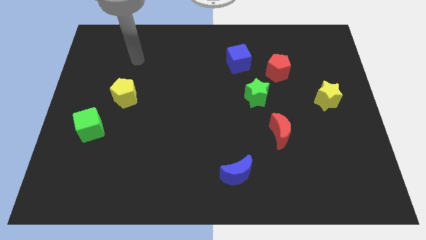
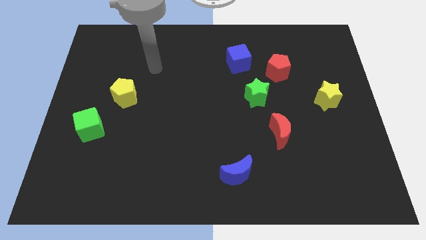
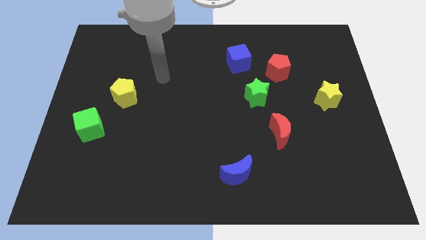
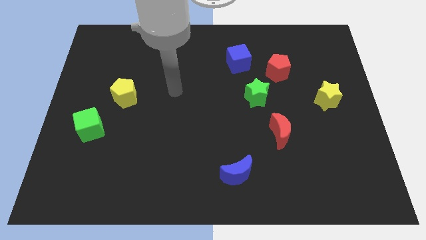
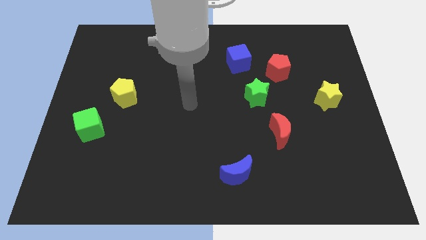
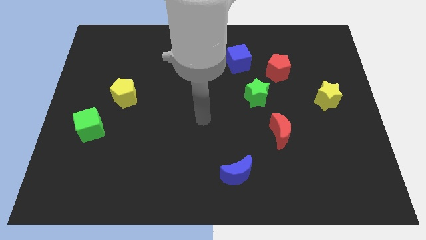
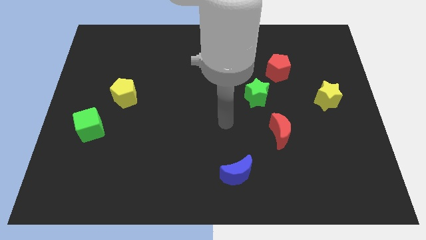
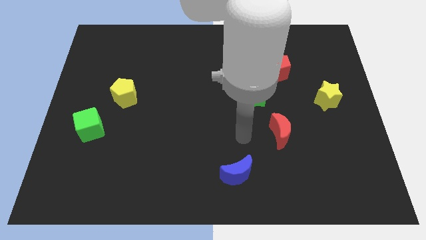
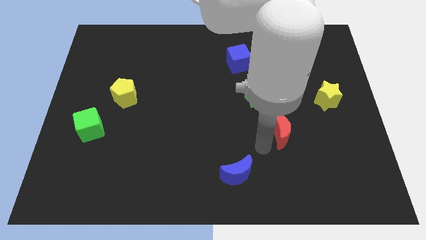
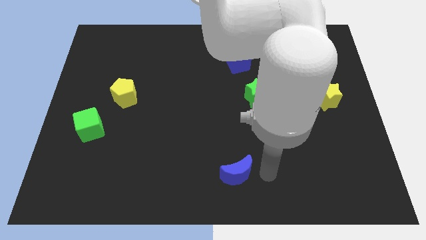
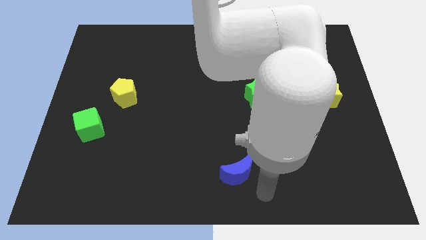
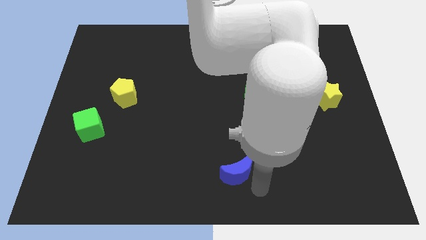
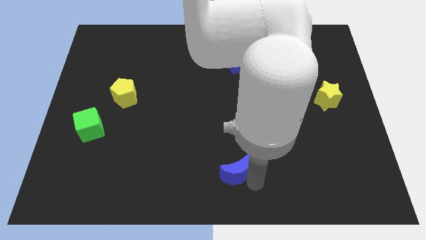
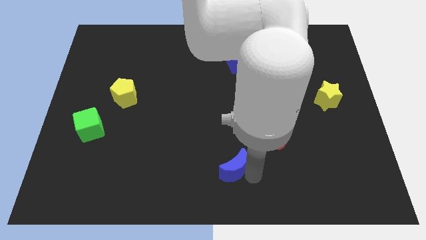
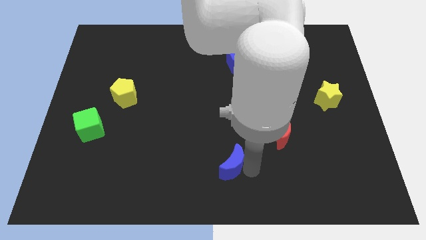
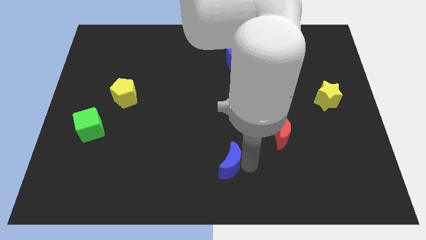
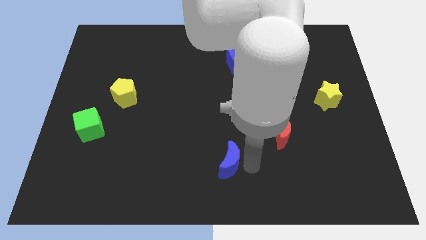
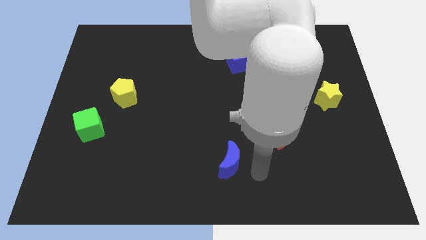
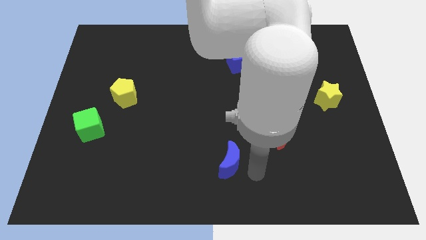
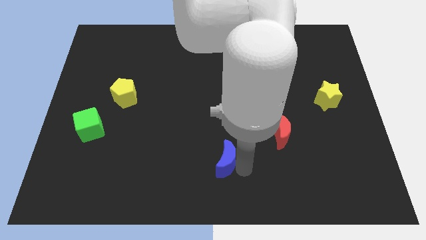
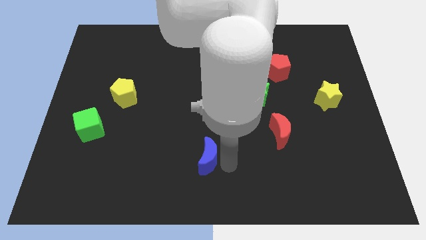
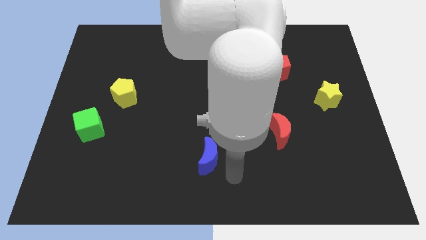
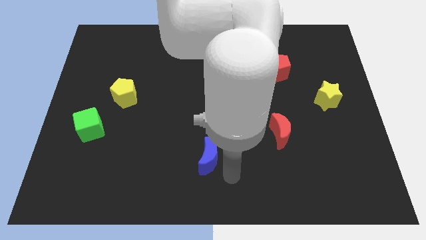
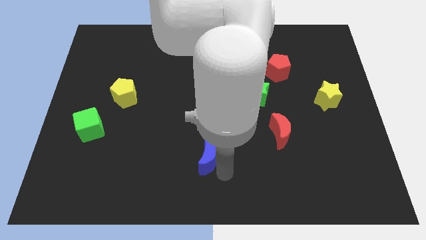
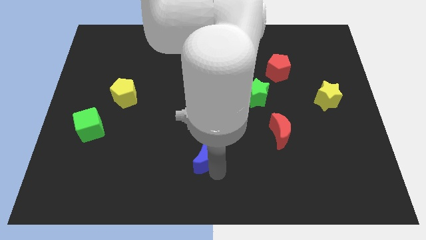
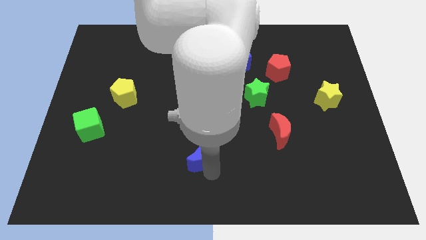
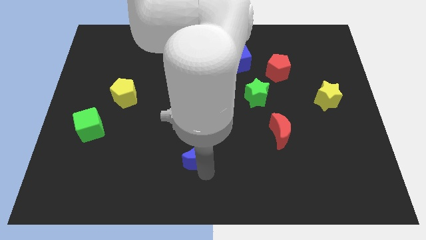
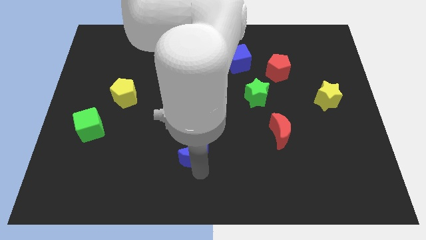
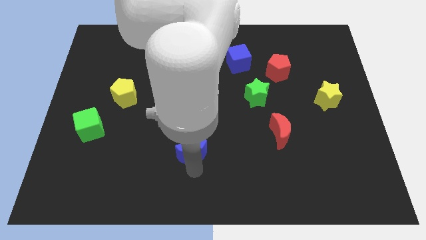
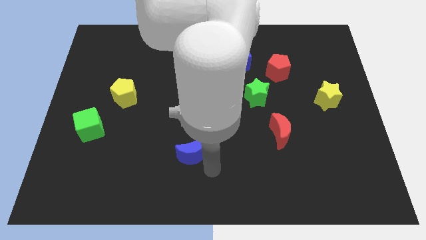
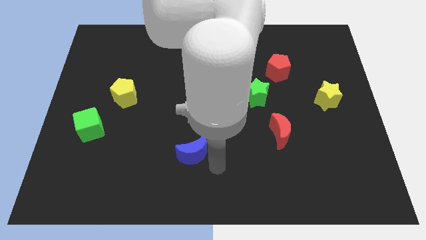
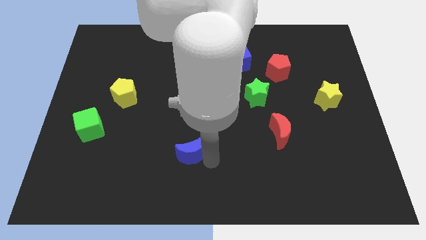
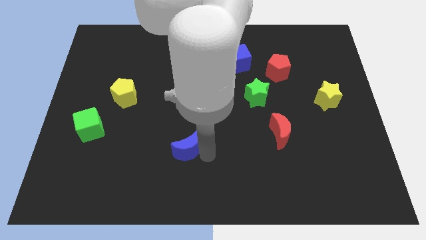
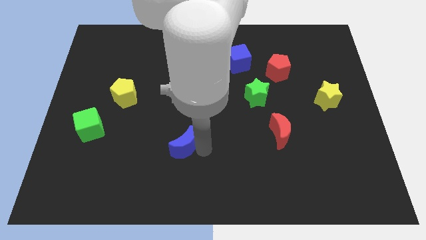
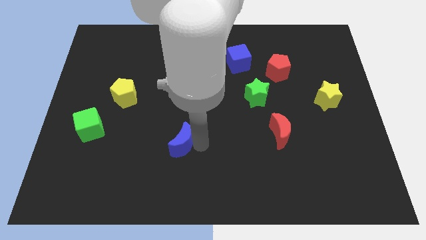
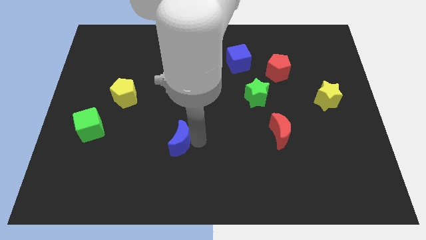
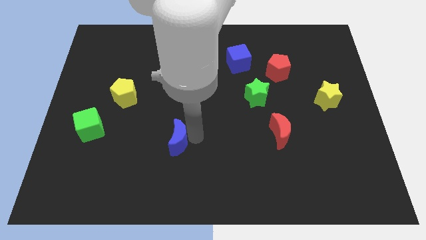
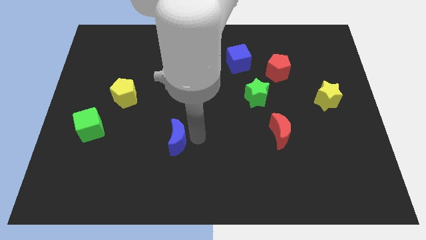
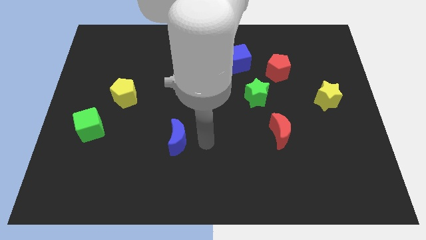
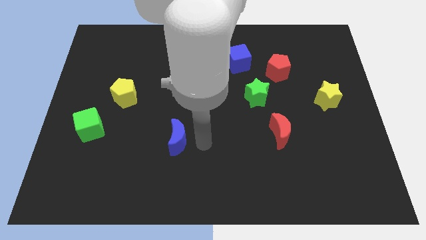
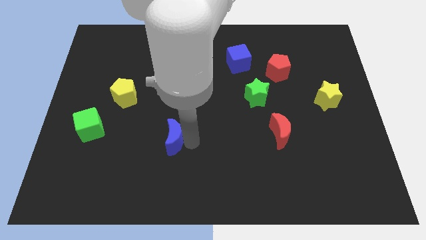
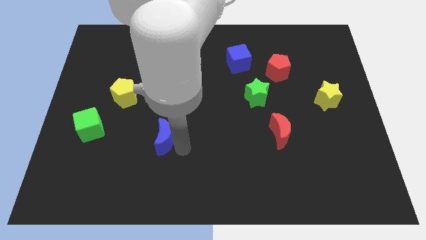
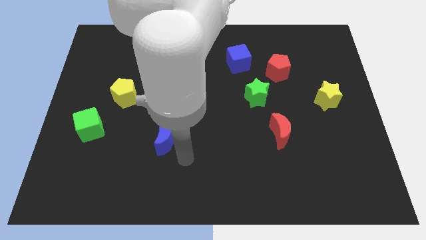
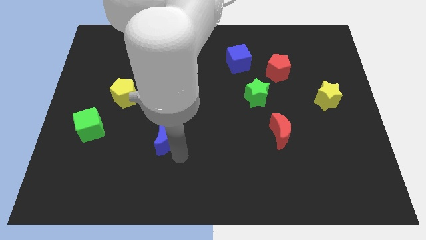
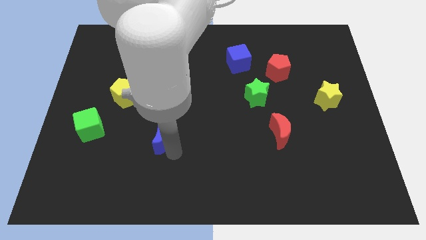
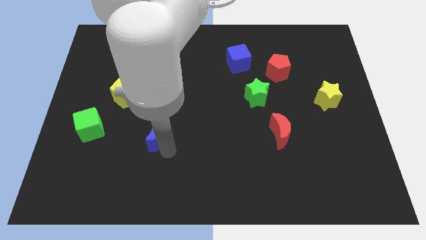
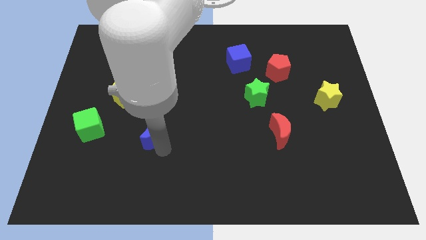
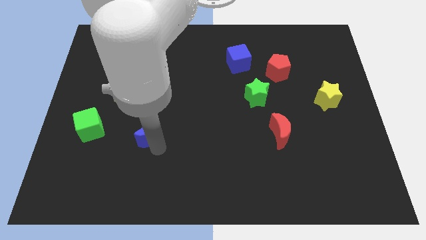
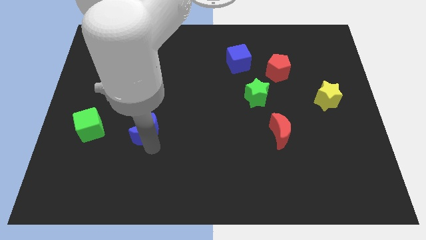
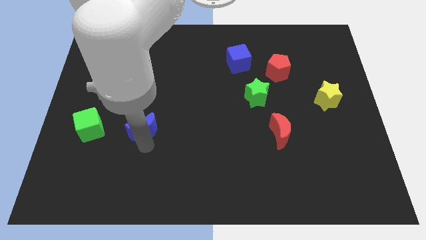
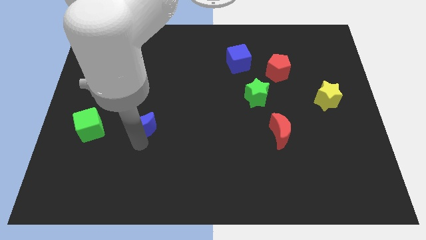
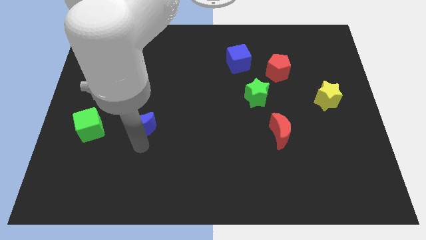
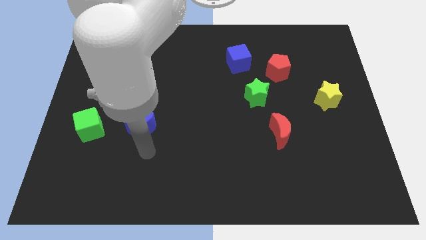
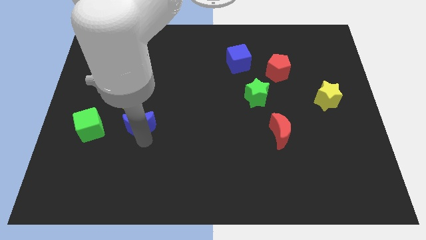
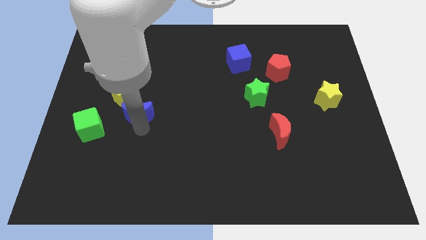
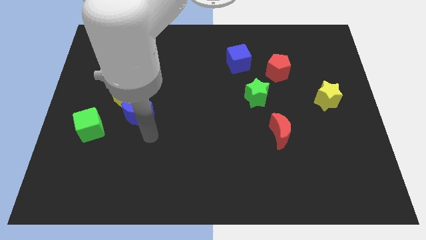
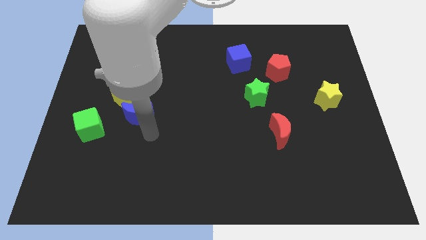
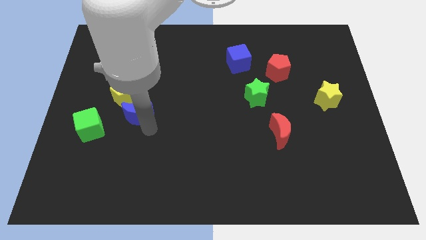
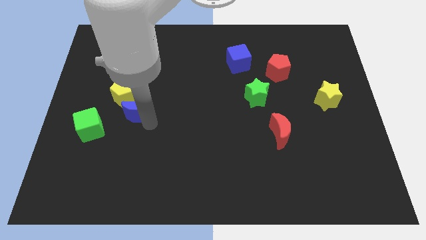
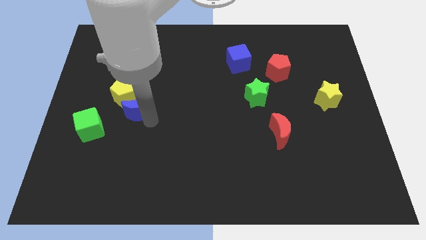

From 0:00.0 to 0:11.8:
move the blue moon next to the yellow pentagon

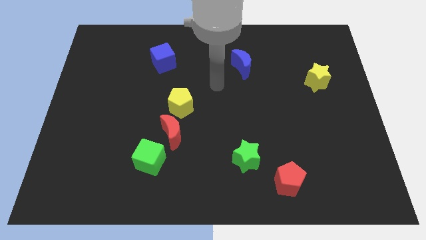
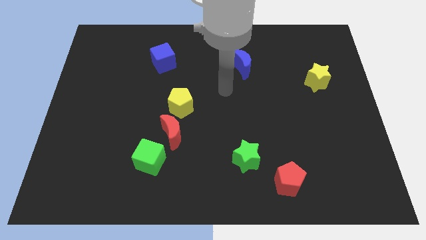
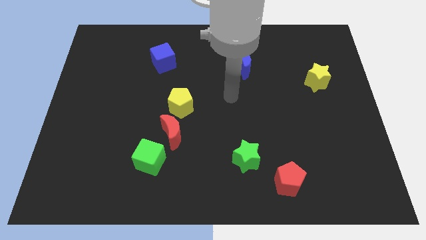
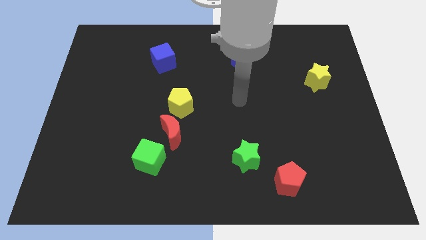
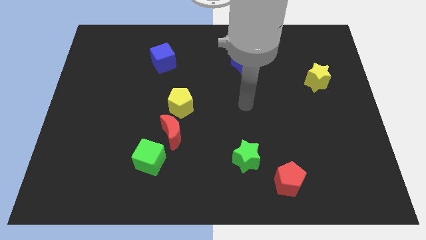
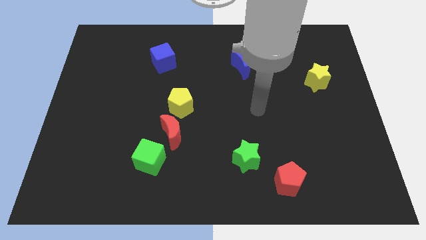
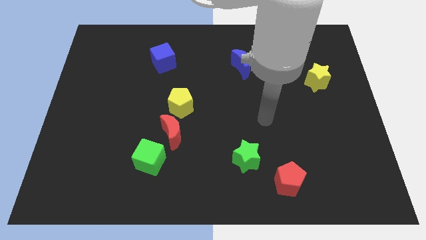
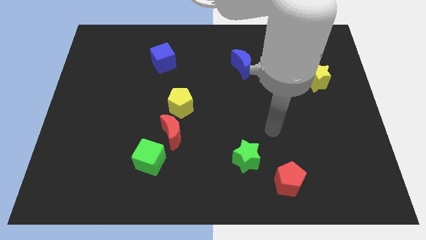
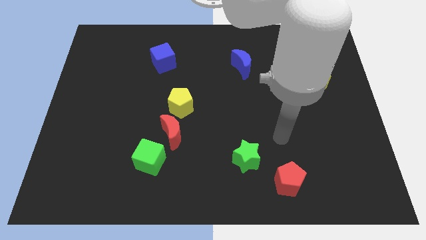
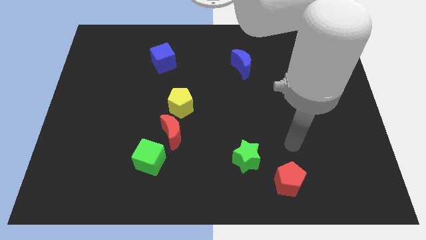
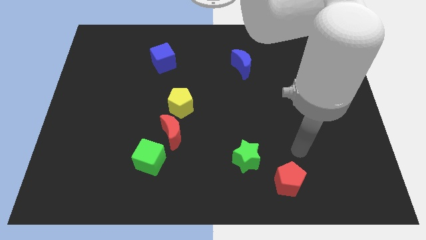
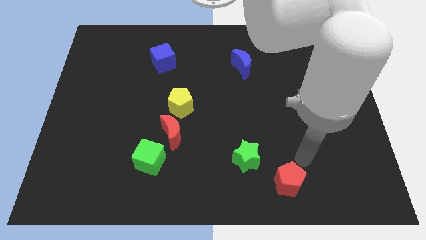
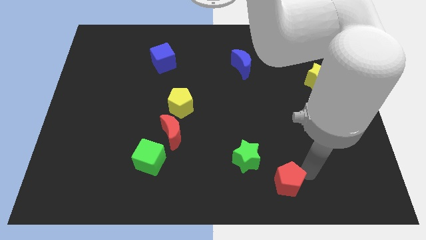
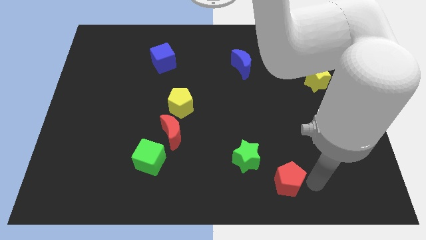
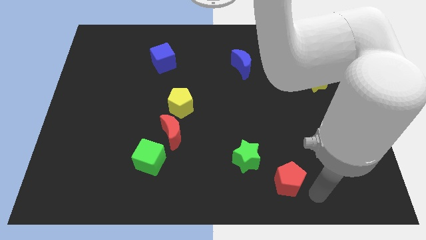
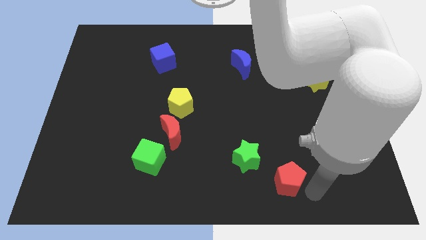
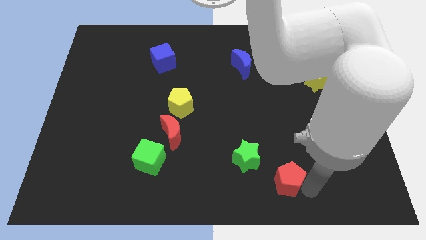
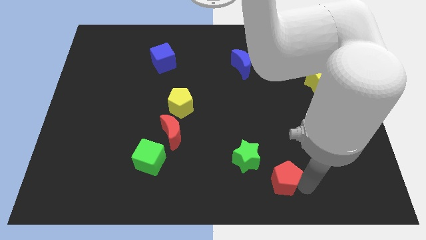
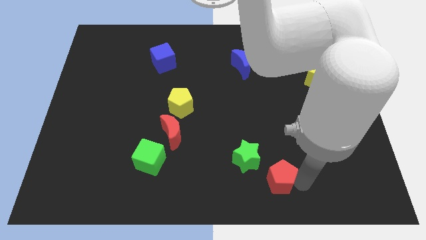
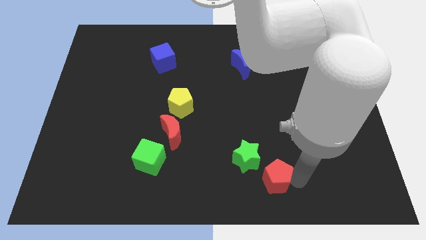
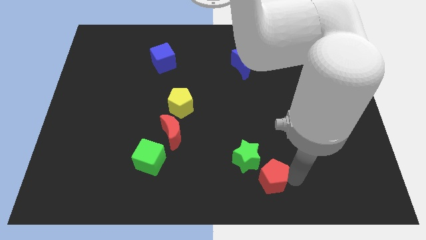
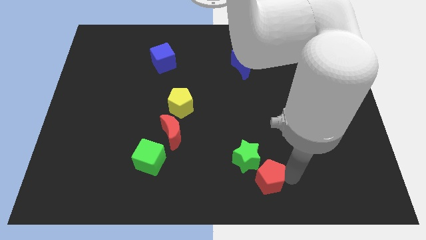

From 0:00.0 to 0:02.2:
move the red pentagon to the green star
